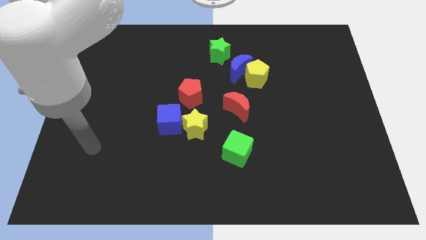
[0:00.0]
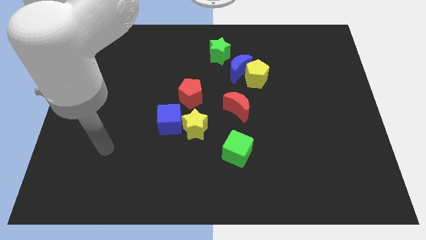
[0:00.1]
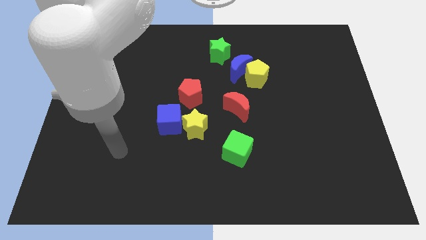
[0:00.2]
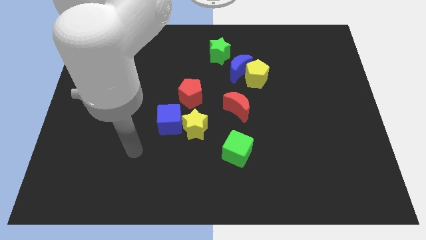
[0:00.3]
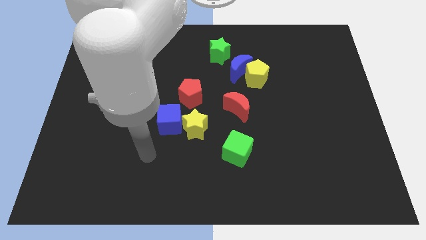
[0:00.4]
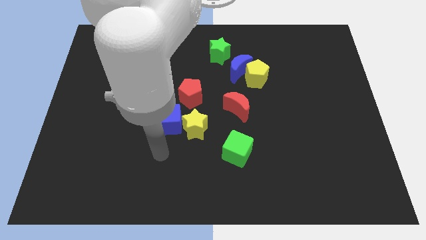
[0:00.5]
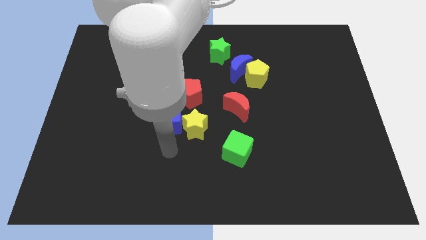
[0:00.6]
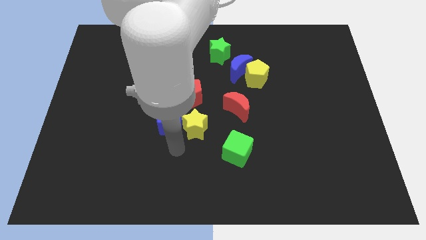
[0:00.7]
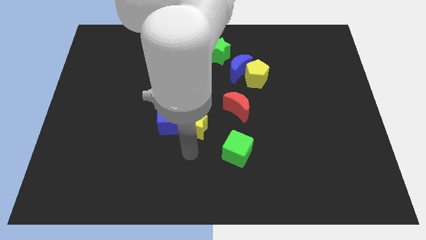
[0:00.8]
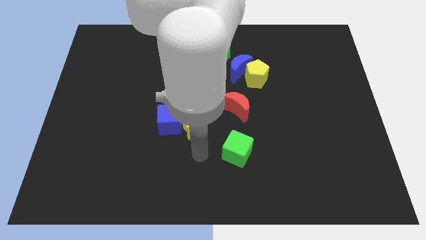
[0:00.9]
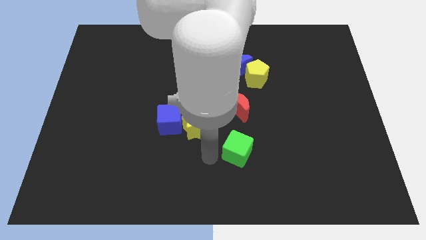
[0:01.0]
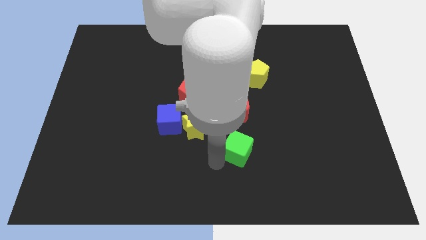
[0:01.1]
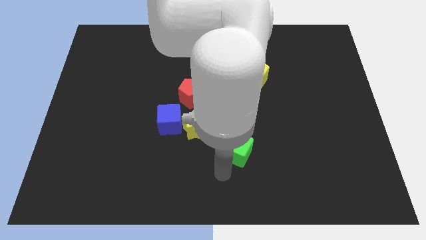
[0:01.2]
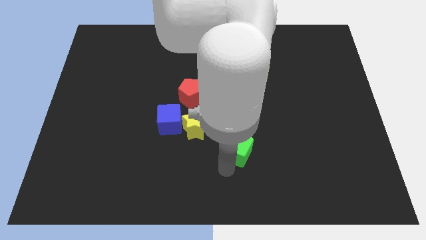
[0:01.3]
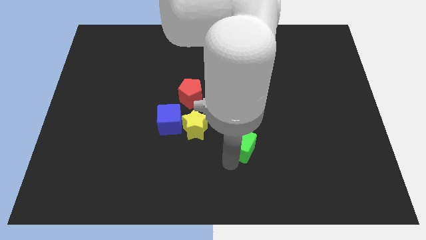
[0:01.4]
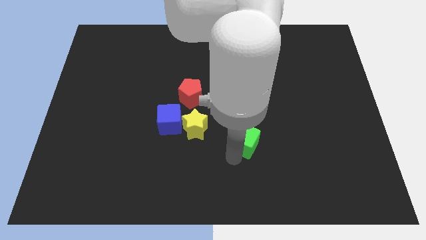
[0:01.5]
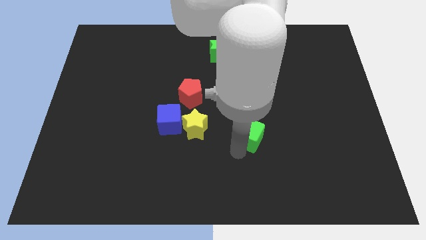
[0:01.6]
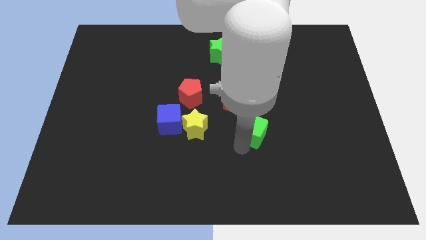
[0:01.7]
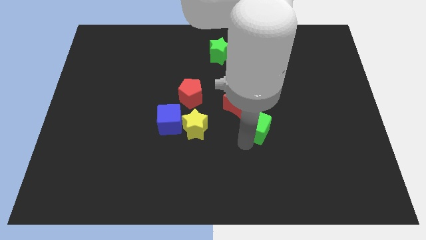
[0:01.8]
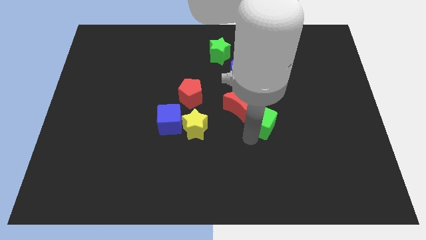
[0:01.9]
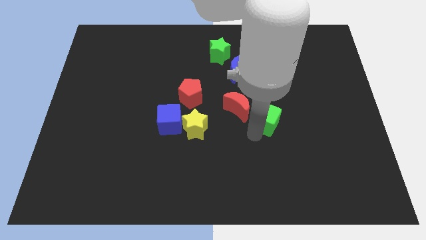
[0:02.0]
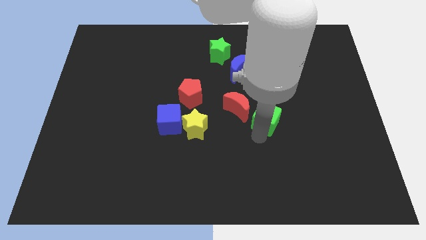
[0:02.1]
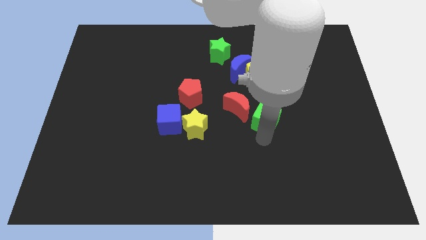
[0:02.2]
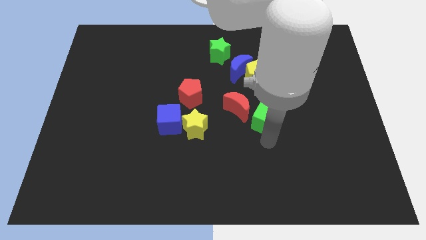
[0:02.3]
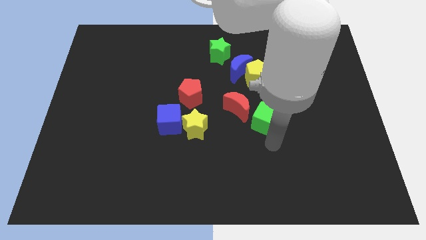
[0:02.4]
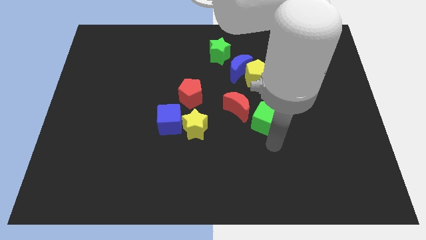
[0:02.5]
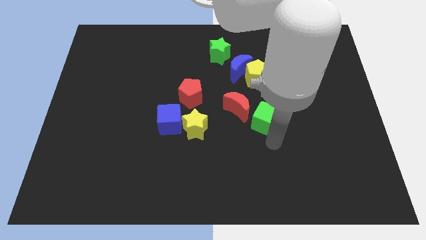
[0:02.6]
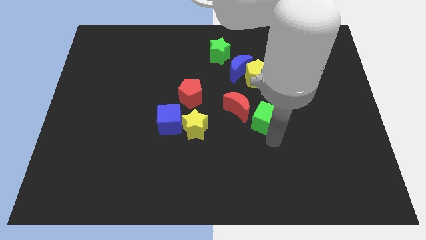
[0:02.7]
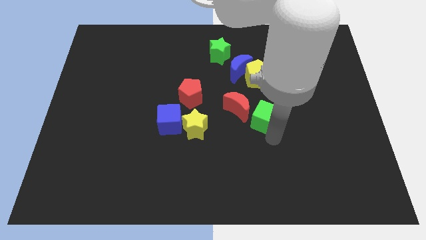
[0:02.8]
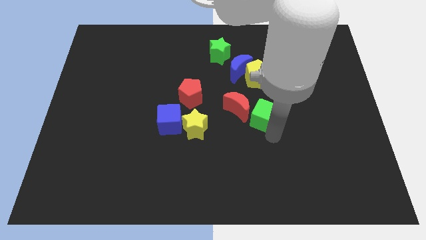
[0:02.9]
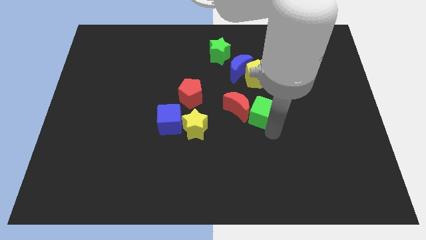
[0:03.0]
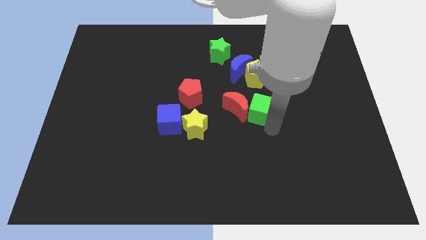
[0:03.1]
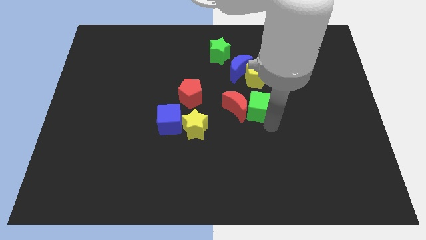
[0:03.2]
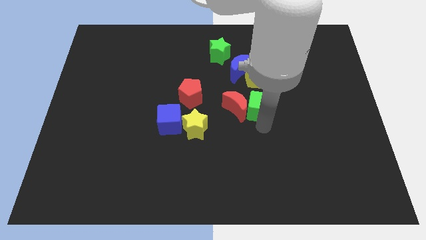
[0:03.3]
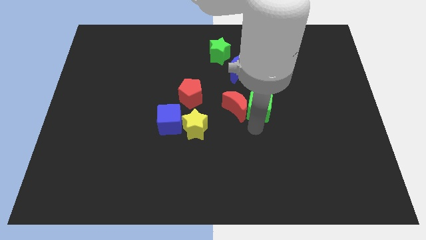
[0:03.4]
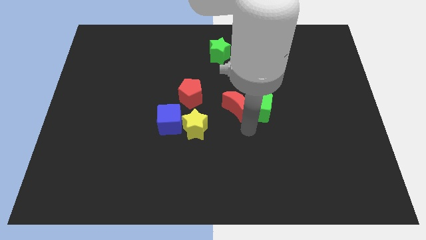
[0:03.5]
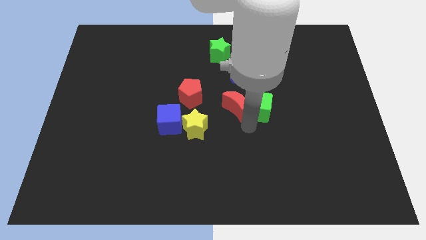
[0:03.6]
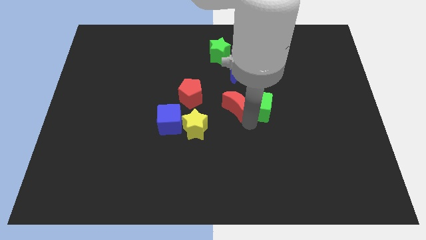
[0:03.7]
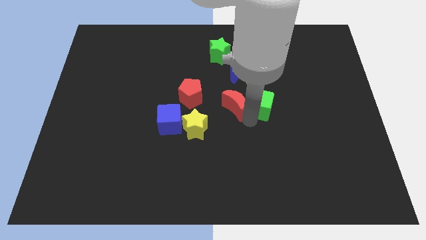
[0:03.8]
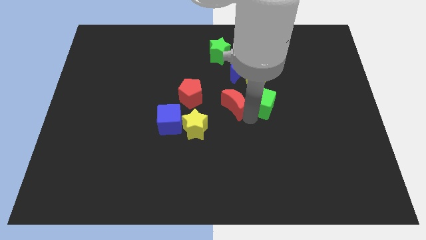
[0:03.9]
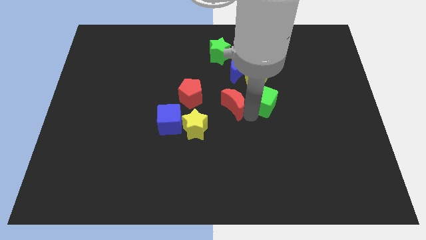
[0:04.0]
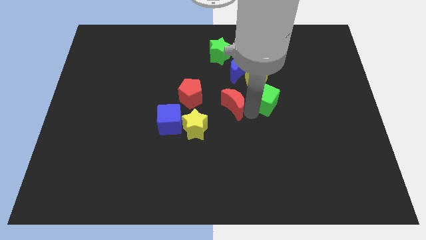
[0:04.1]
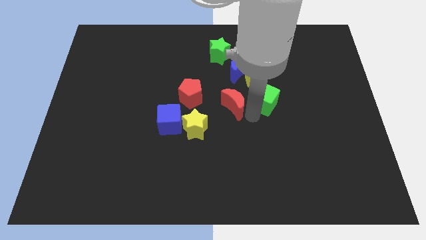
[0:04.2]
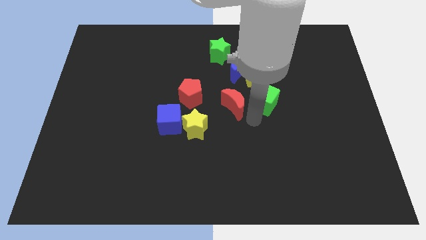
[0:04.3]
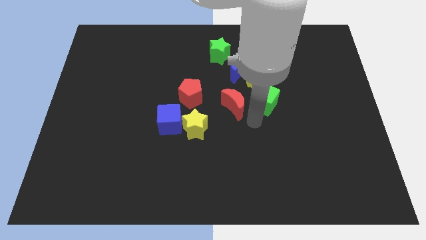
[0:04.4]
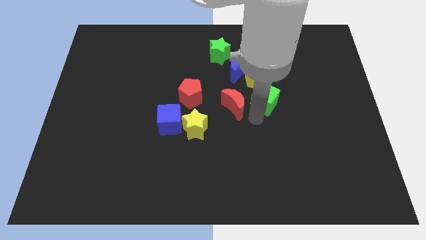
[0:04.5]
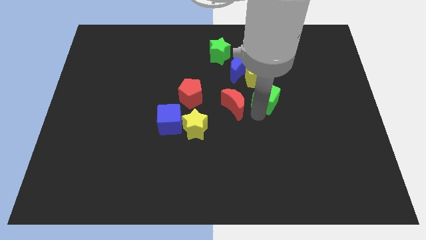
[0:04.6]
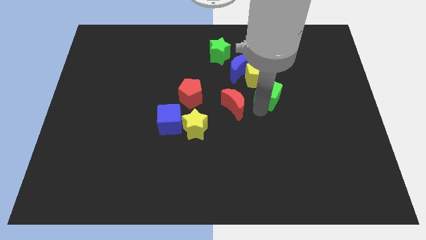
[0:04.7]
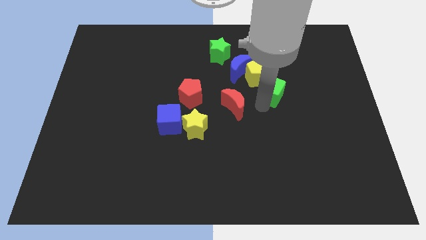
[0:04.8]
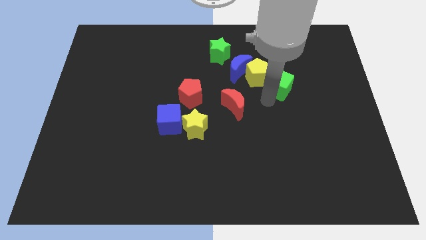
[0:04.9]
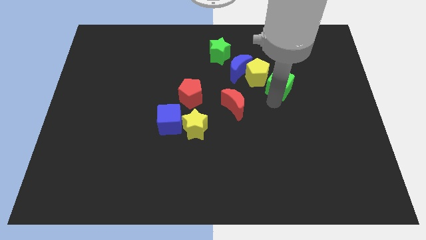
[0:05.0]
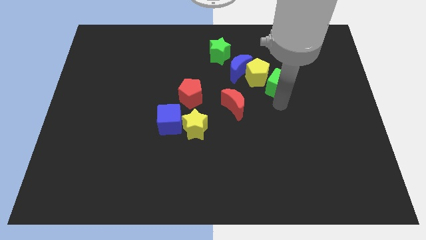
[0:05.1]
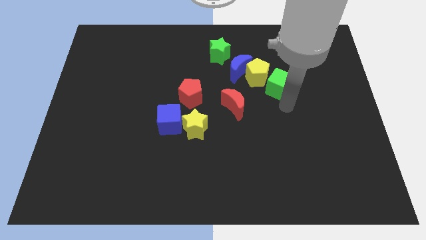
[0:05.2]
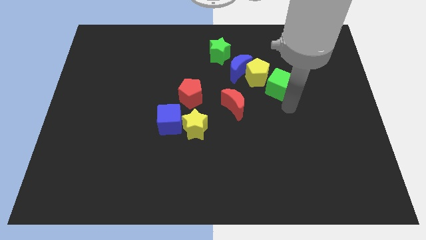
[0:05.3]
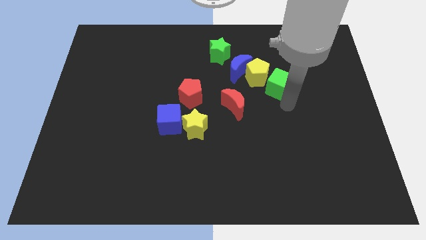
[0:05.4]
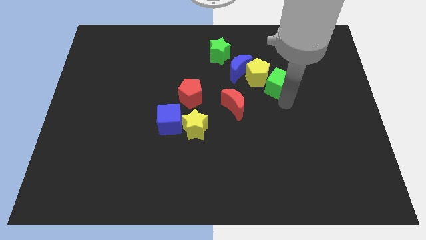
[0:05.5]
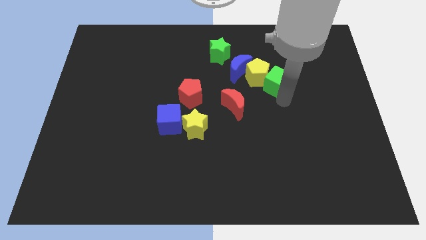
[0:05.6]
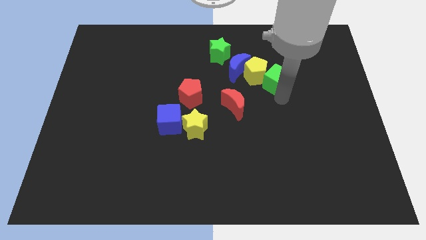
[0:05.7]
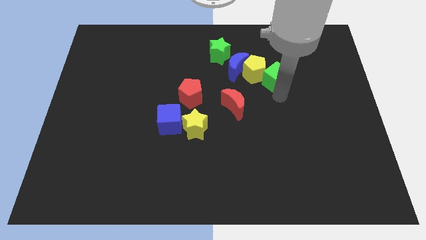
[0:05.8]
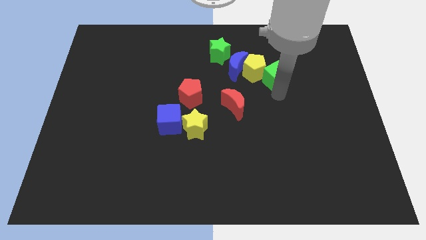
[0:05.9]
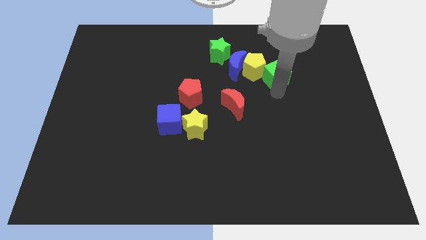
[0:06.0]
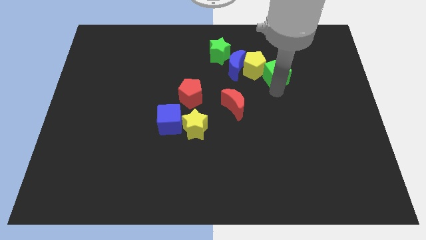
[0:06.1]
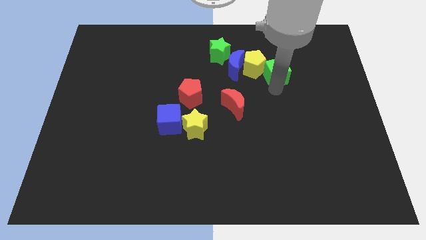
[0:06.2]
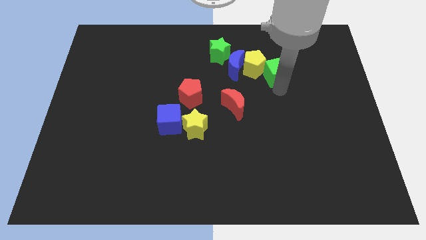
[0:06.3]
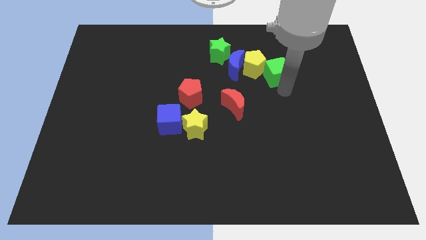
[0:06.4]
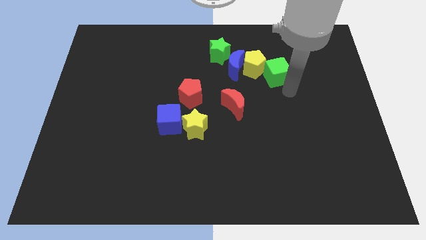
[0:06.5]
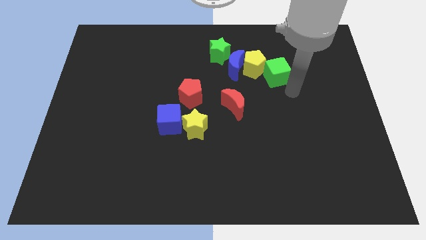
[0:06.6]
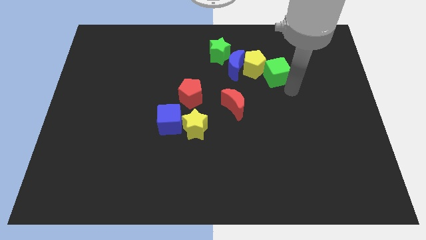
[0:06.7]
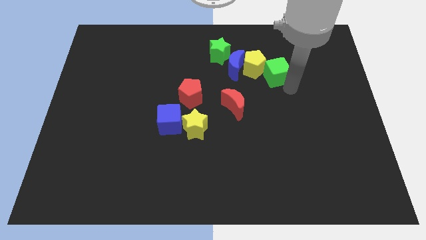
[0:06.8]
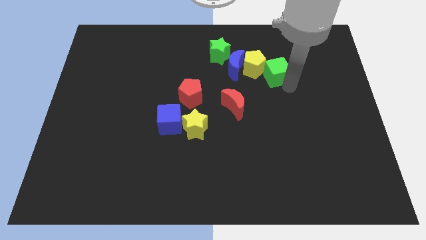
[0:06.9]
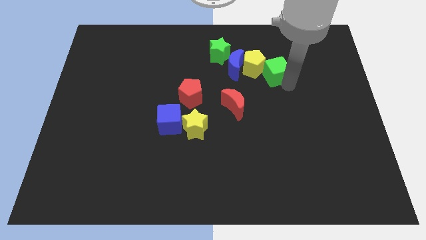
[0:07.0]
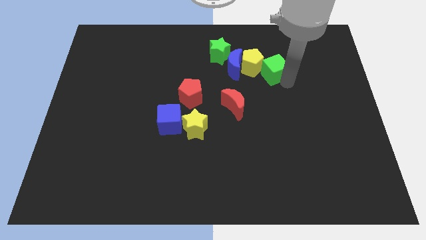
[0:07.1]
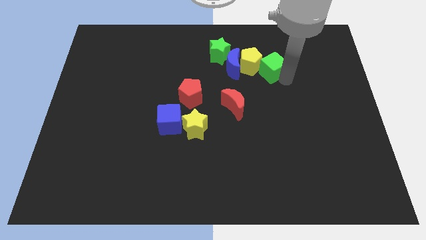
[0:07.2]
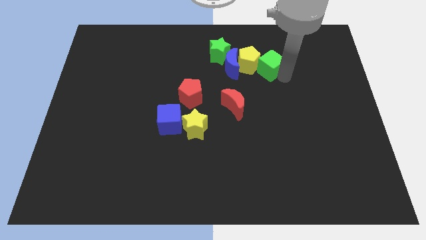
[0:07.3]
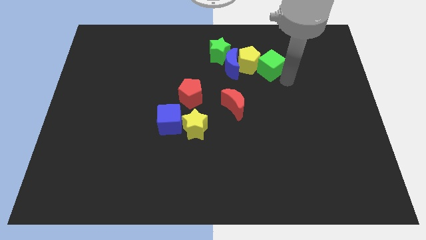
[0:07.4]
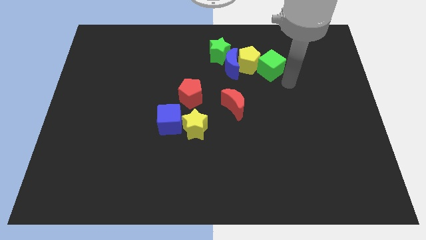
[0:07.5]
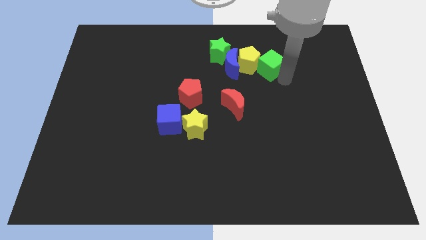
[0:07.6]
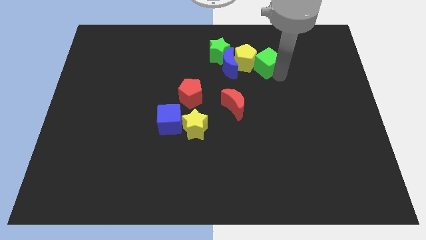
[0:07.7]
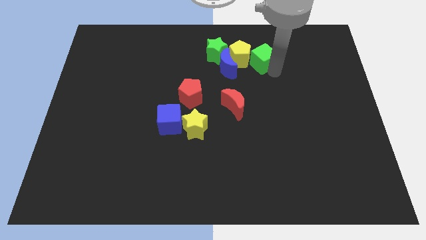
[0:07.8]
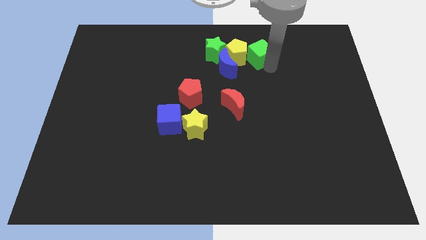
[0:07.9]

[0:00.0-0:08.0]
move the green cube to the top right of the blue moon

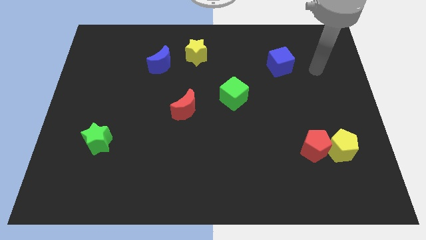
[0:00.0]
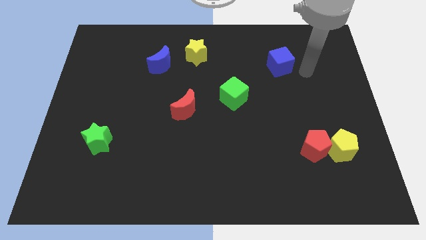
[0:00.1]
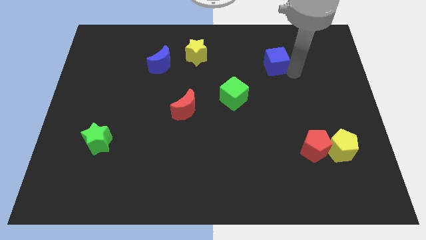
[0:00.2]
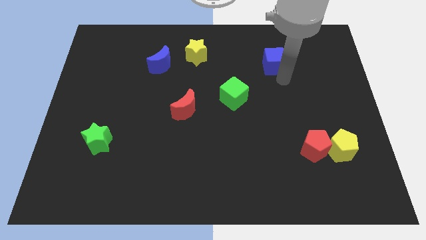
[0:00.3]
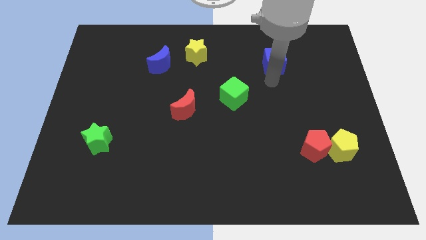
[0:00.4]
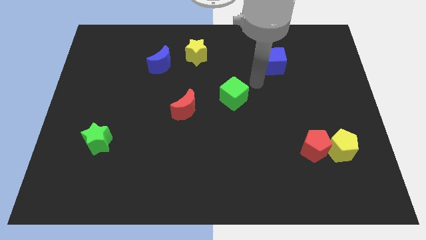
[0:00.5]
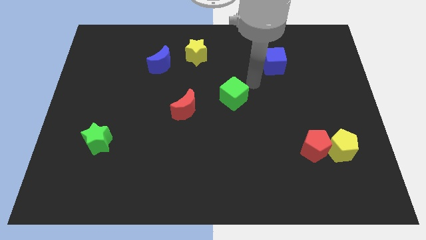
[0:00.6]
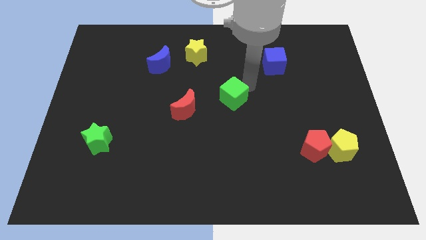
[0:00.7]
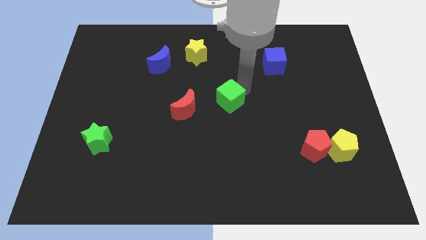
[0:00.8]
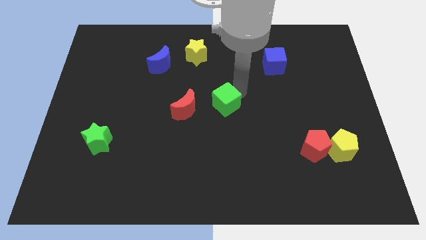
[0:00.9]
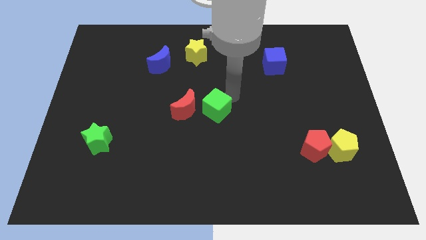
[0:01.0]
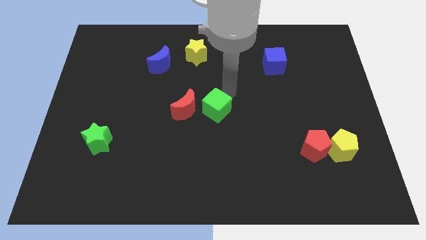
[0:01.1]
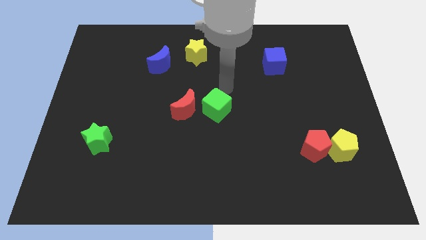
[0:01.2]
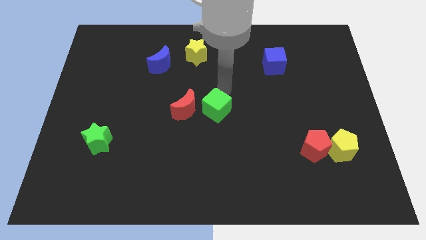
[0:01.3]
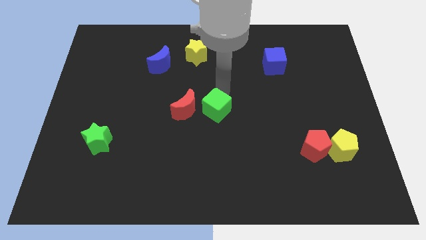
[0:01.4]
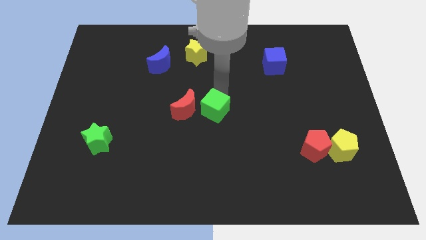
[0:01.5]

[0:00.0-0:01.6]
move the green cube to the bottom right of the red moon
